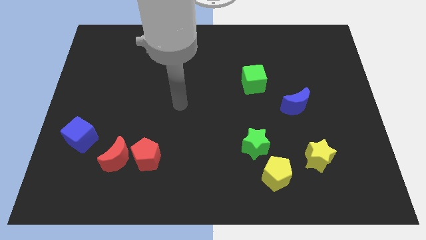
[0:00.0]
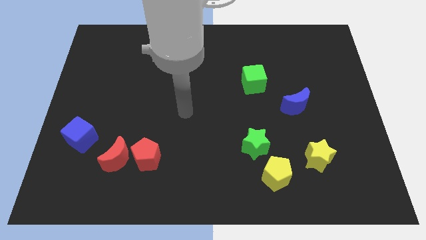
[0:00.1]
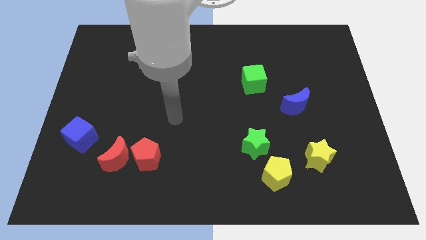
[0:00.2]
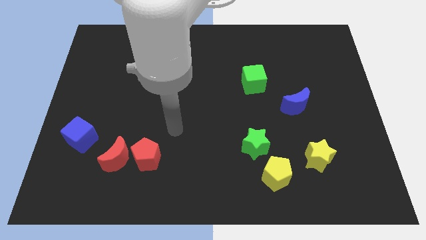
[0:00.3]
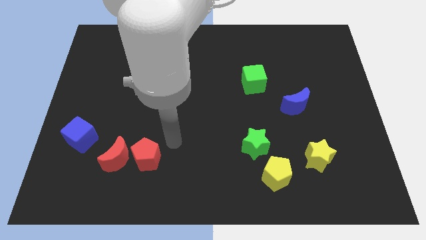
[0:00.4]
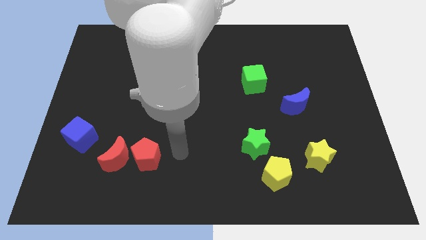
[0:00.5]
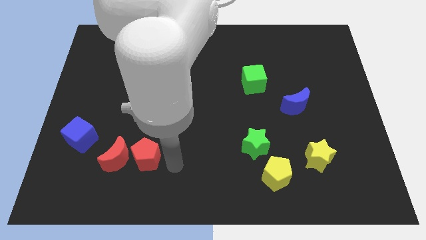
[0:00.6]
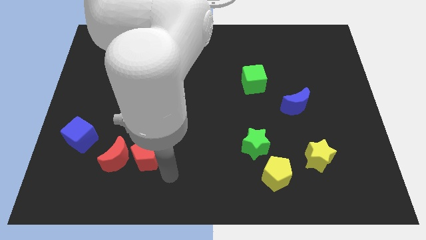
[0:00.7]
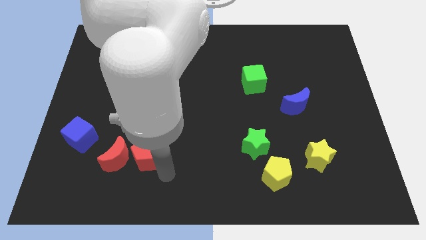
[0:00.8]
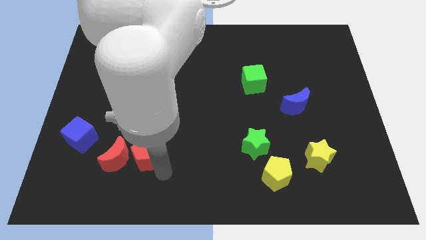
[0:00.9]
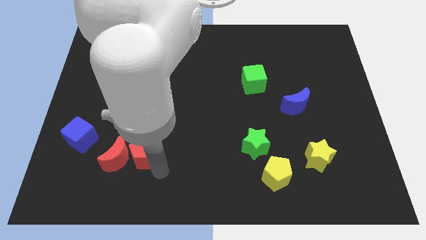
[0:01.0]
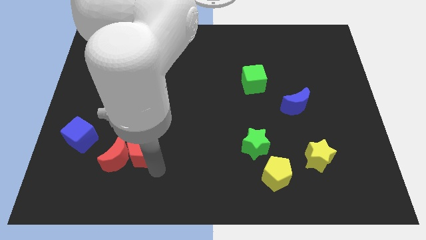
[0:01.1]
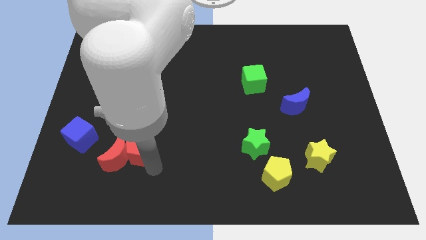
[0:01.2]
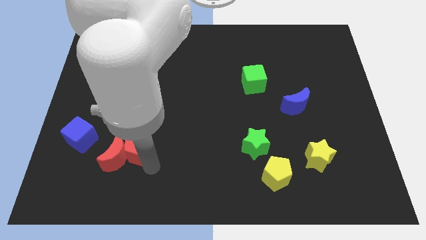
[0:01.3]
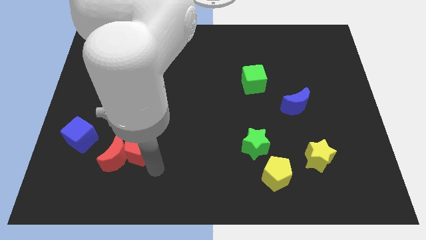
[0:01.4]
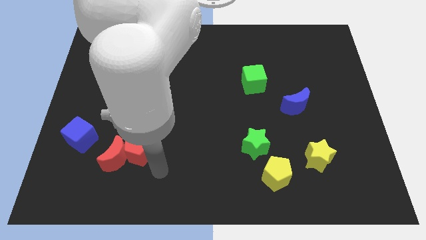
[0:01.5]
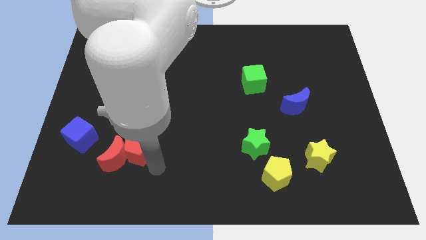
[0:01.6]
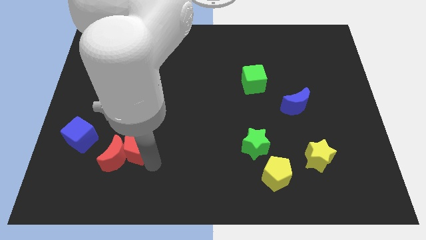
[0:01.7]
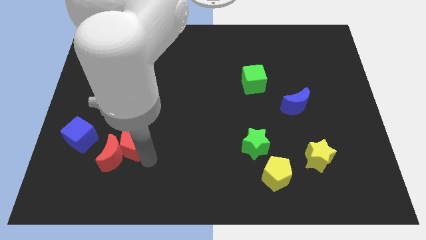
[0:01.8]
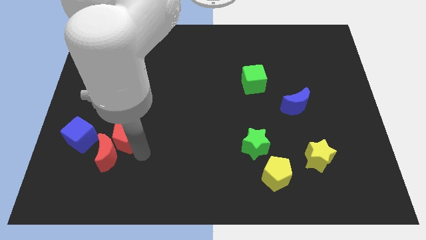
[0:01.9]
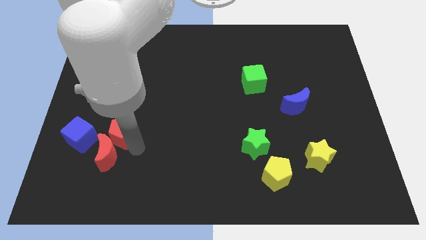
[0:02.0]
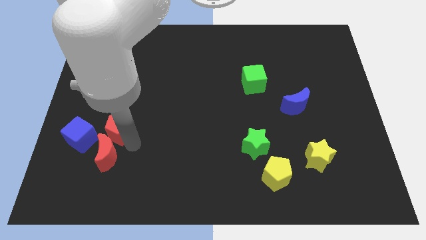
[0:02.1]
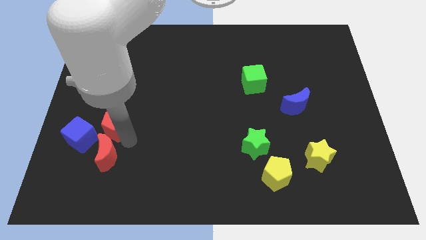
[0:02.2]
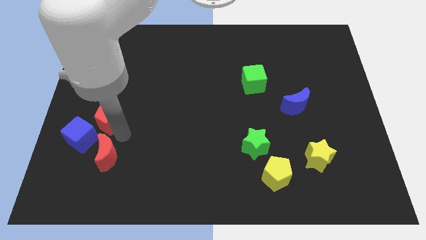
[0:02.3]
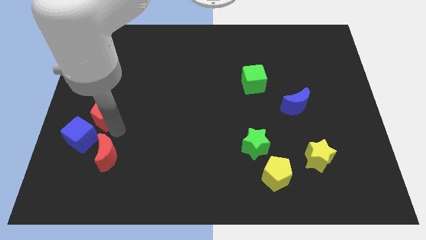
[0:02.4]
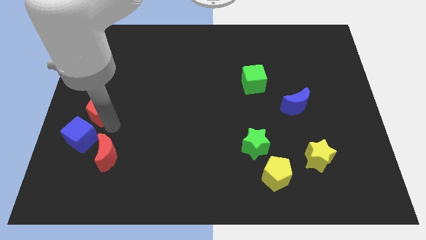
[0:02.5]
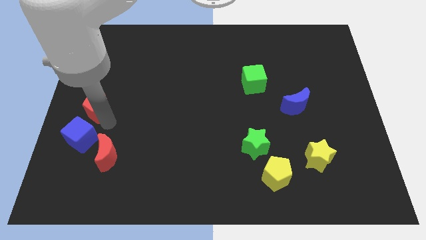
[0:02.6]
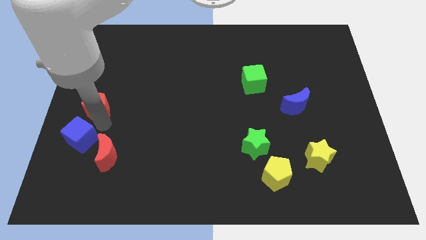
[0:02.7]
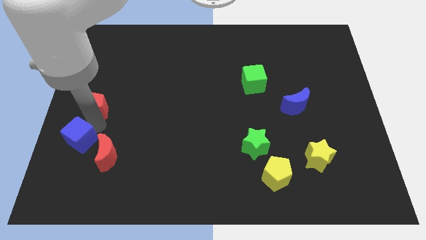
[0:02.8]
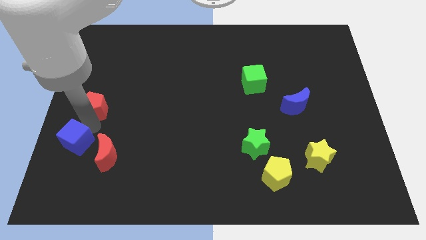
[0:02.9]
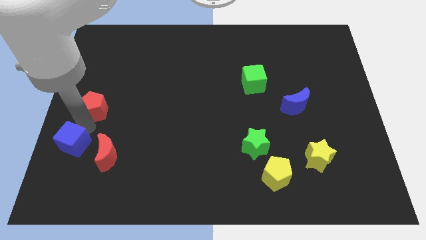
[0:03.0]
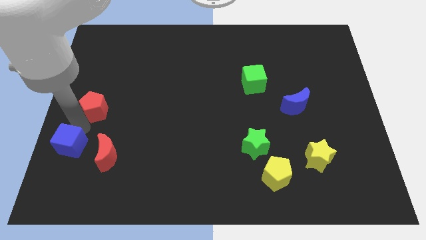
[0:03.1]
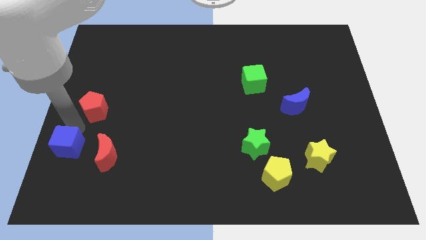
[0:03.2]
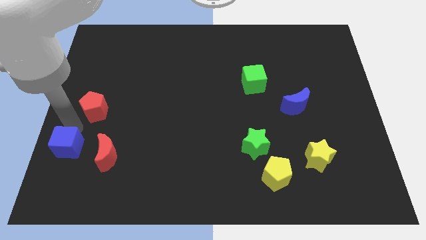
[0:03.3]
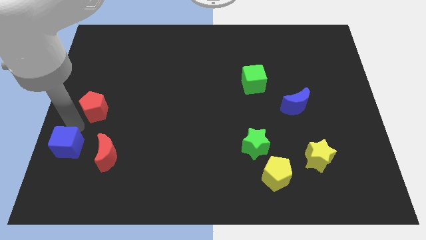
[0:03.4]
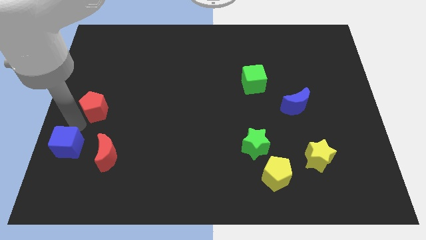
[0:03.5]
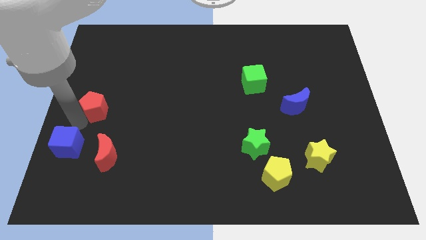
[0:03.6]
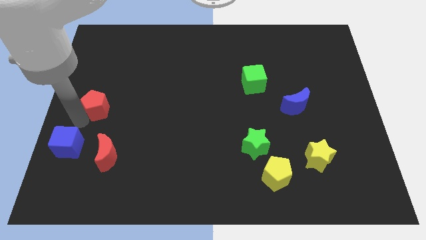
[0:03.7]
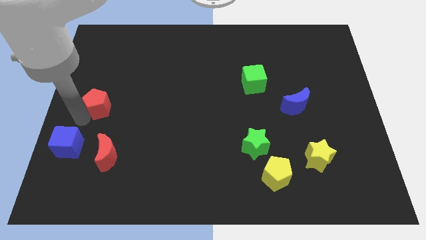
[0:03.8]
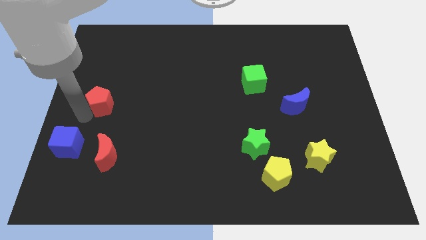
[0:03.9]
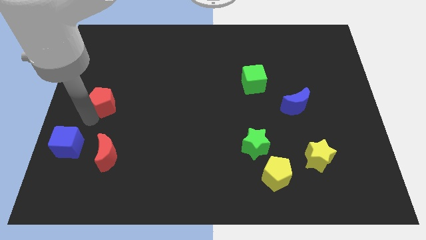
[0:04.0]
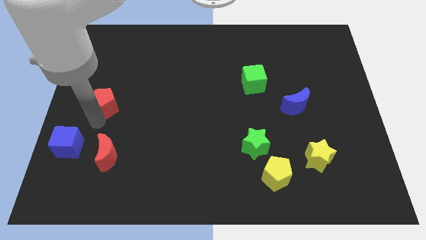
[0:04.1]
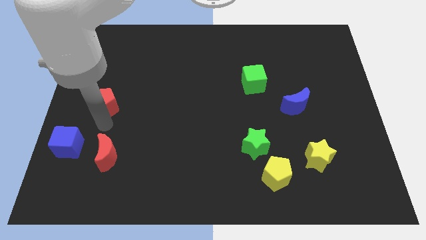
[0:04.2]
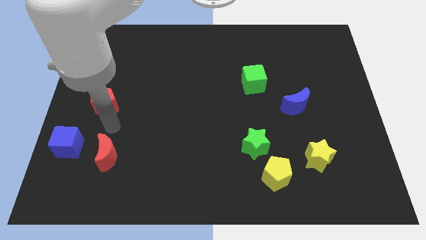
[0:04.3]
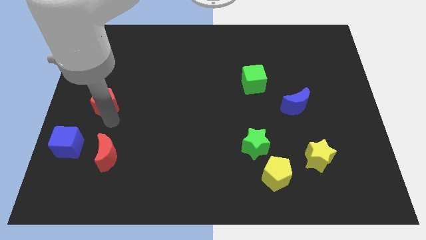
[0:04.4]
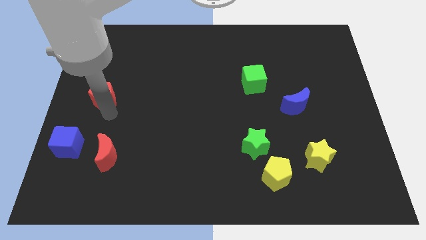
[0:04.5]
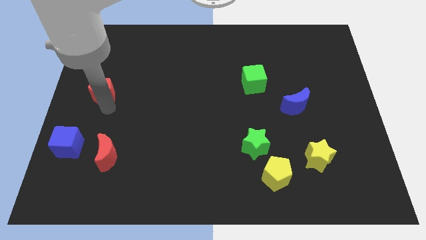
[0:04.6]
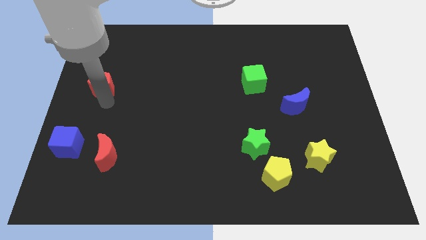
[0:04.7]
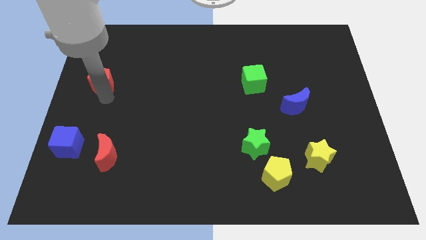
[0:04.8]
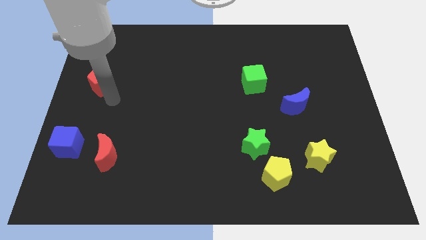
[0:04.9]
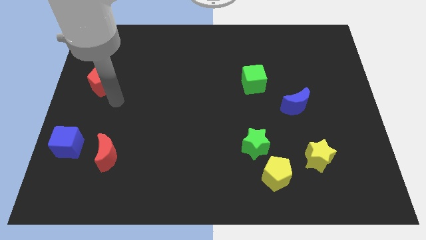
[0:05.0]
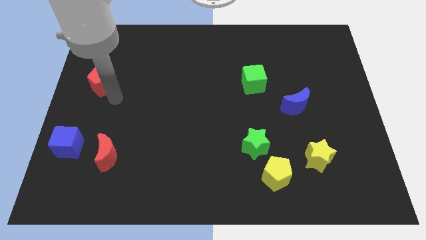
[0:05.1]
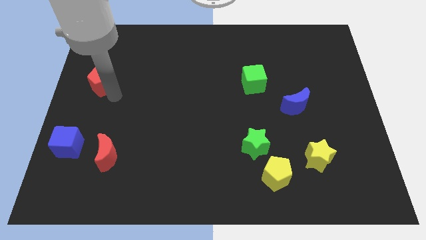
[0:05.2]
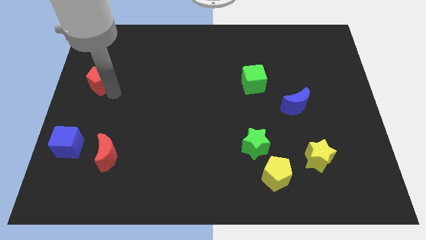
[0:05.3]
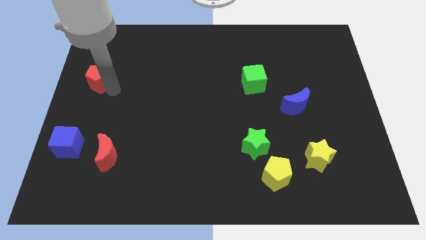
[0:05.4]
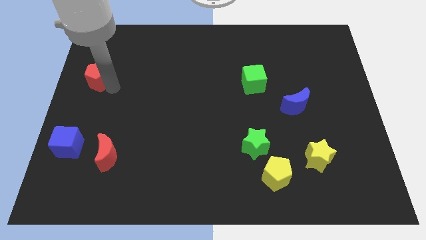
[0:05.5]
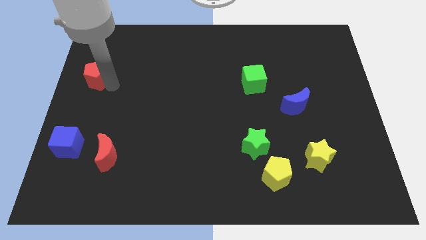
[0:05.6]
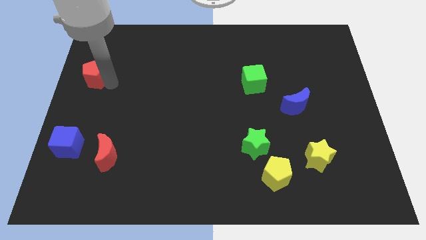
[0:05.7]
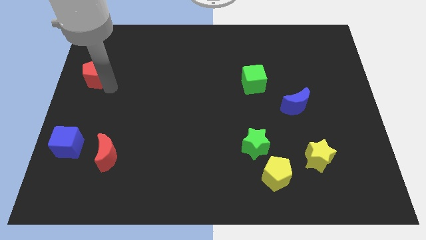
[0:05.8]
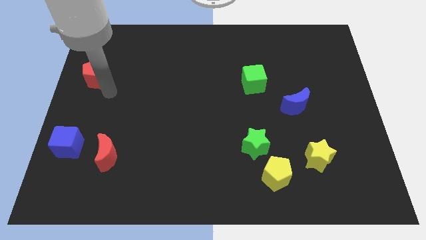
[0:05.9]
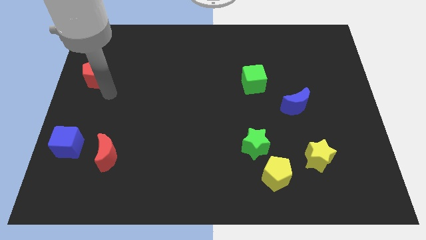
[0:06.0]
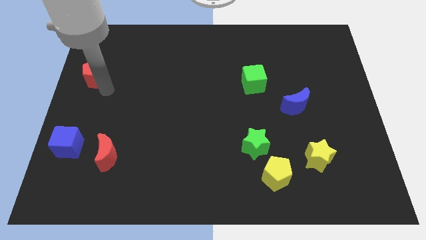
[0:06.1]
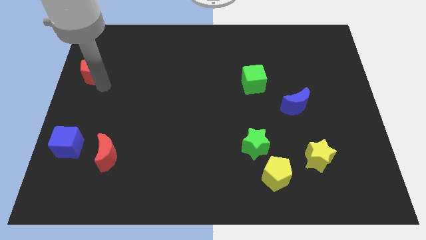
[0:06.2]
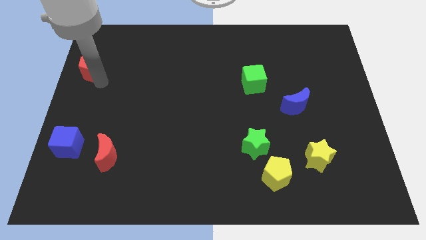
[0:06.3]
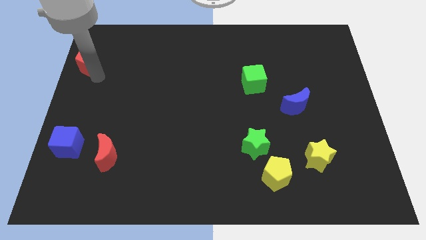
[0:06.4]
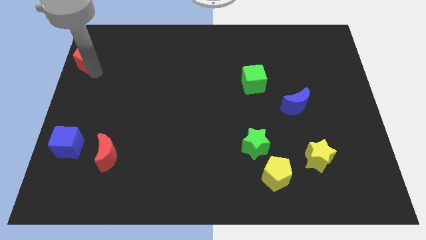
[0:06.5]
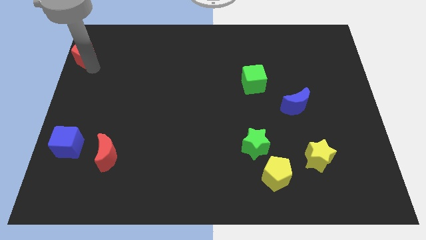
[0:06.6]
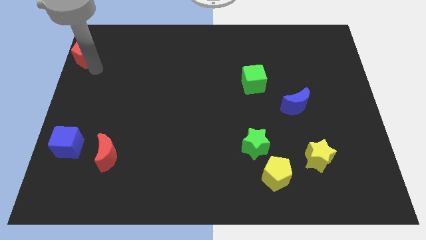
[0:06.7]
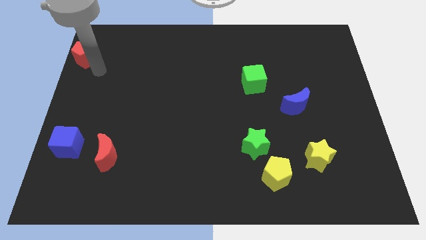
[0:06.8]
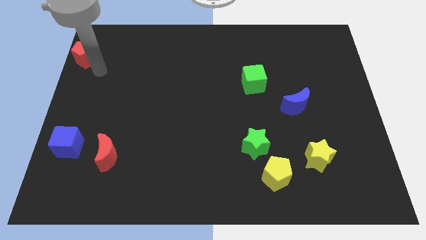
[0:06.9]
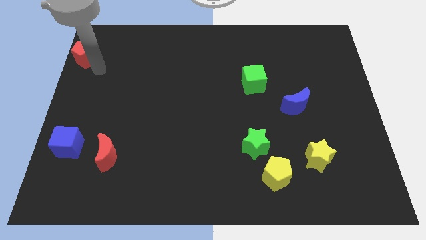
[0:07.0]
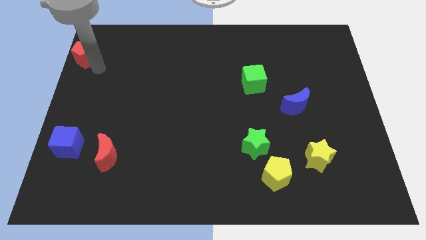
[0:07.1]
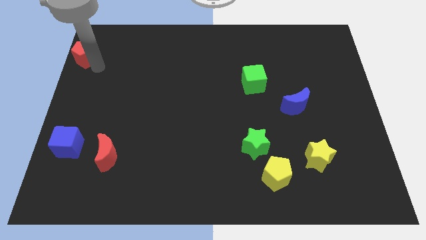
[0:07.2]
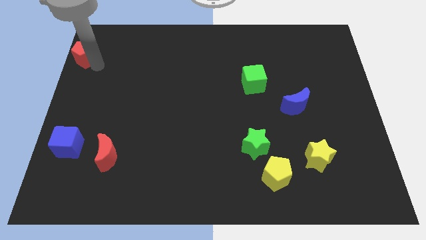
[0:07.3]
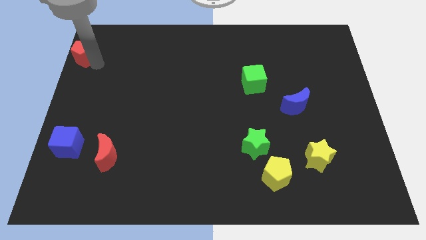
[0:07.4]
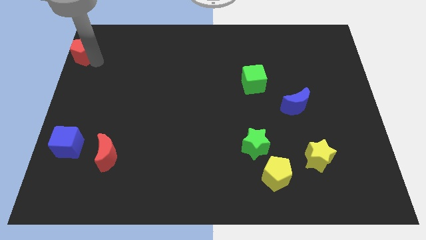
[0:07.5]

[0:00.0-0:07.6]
slide the red pentagon to the top left
